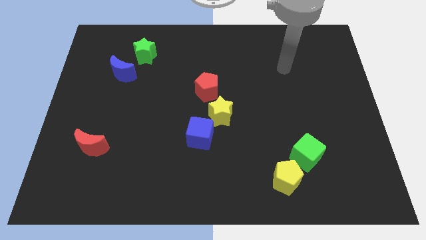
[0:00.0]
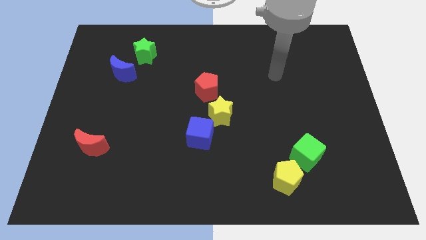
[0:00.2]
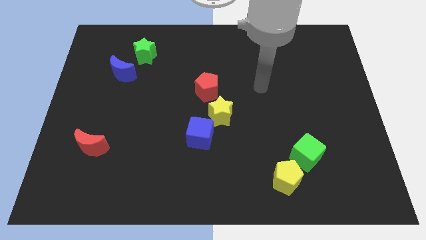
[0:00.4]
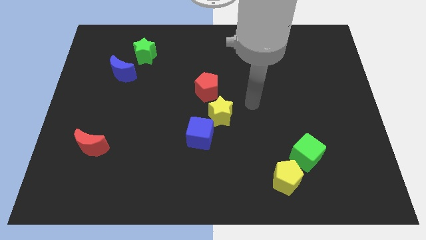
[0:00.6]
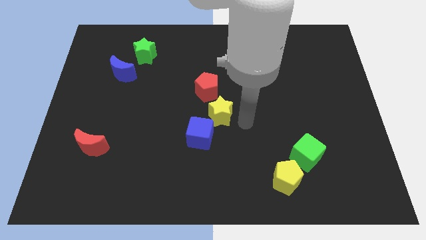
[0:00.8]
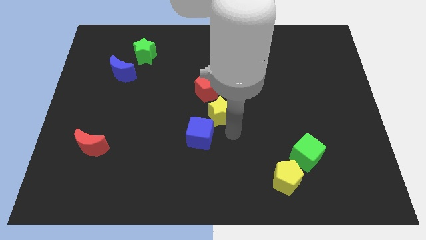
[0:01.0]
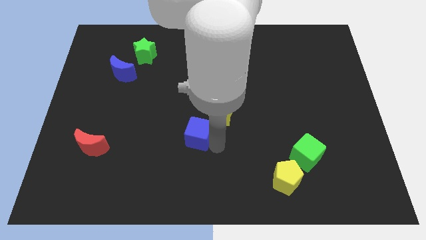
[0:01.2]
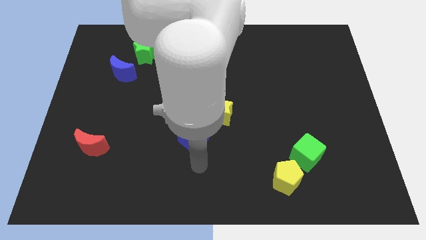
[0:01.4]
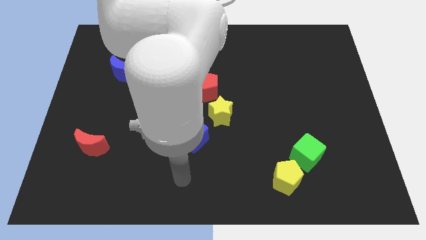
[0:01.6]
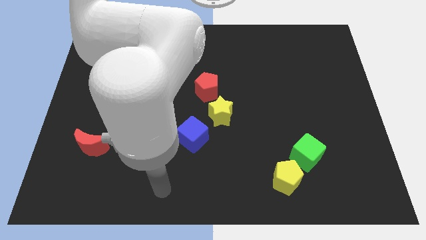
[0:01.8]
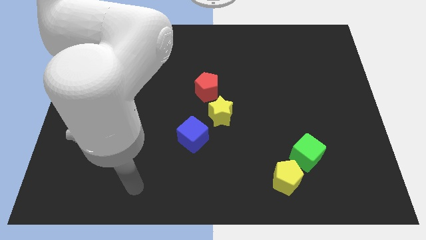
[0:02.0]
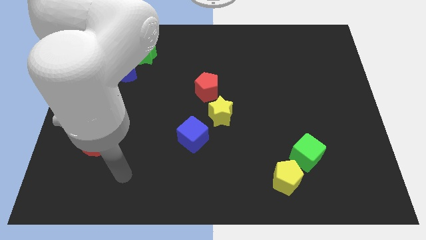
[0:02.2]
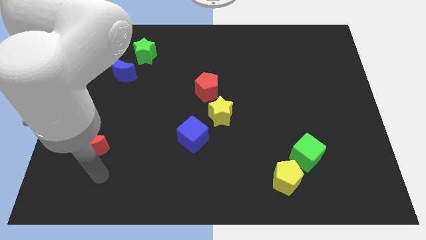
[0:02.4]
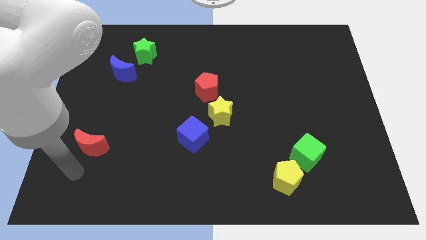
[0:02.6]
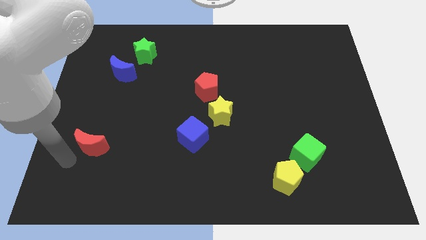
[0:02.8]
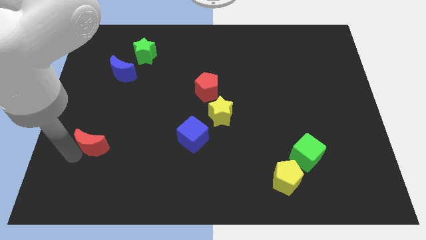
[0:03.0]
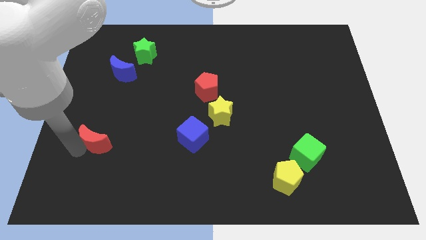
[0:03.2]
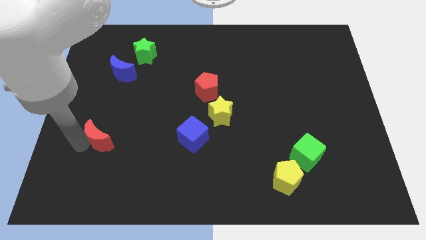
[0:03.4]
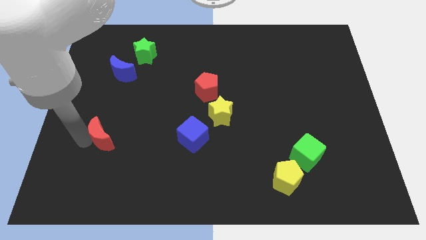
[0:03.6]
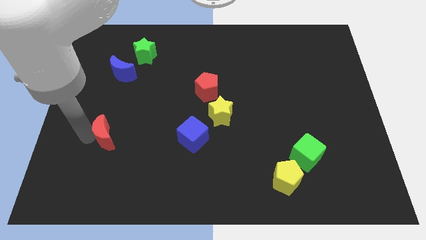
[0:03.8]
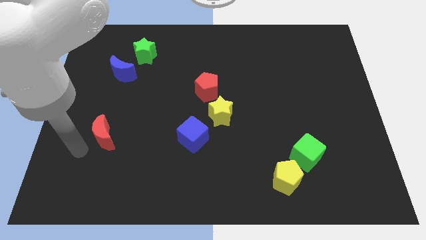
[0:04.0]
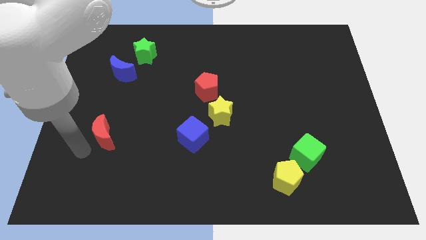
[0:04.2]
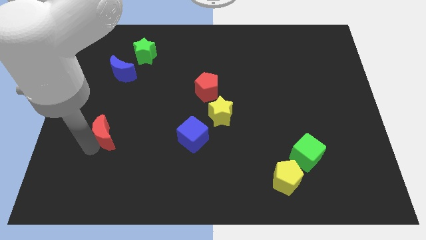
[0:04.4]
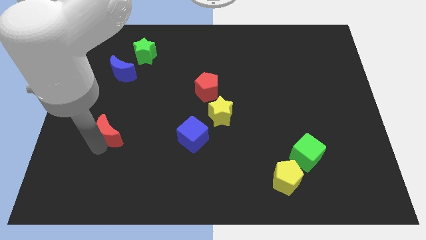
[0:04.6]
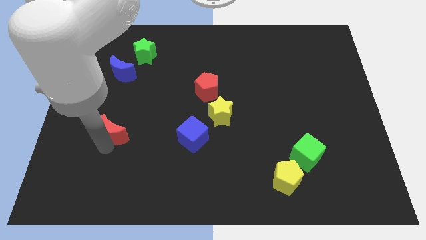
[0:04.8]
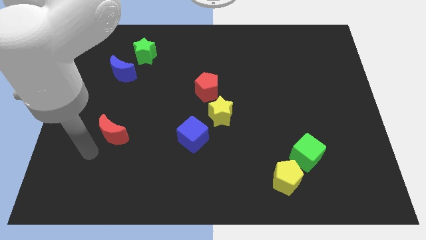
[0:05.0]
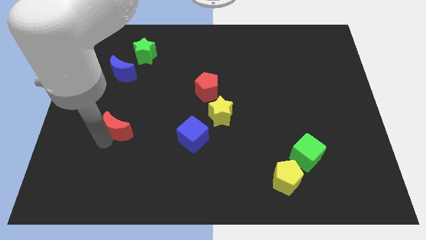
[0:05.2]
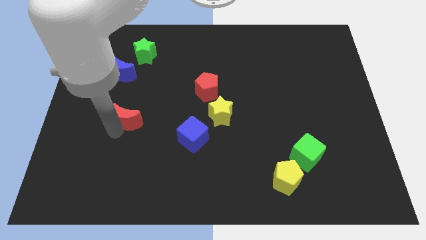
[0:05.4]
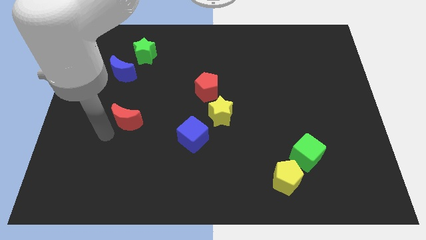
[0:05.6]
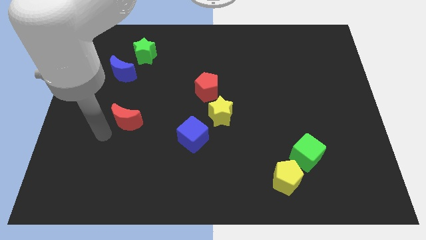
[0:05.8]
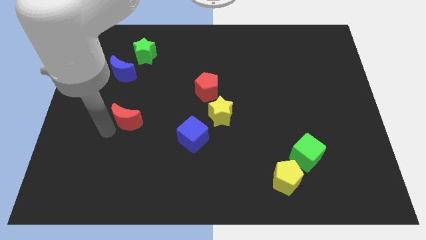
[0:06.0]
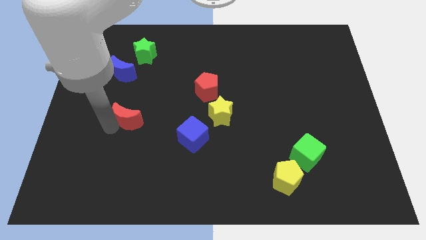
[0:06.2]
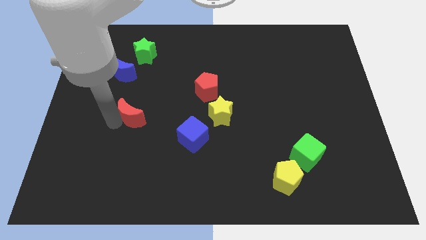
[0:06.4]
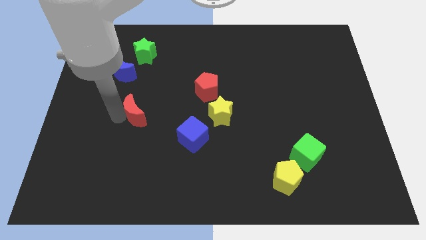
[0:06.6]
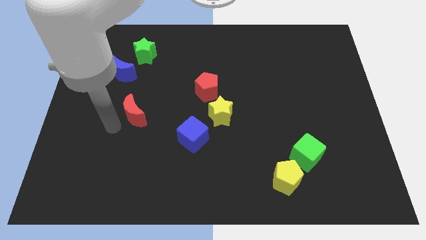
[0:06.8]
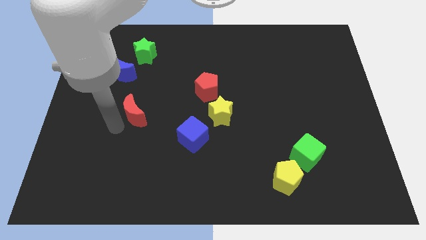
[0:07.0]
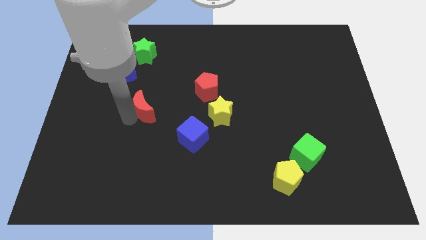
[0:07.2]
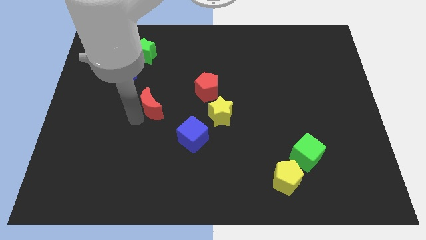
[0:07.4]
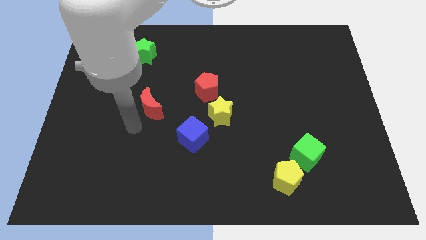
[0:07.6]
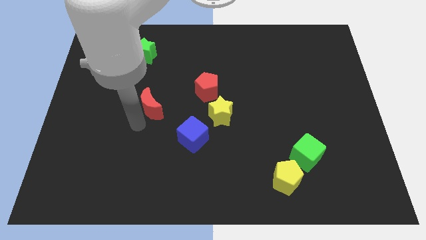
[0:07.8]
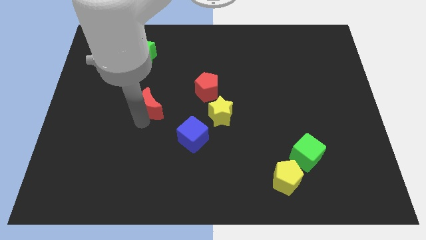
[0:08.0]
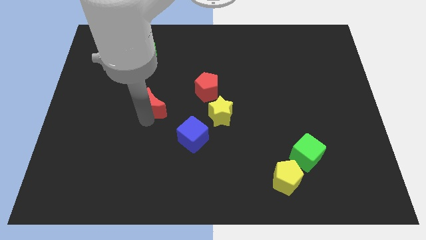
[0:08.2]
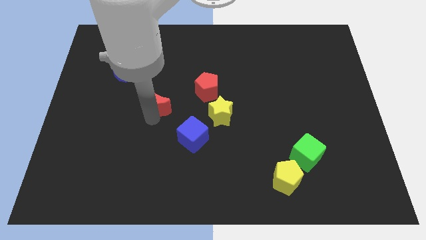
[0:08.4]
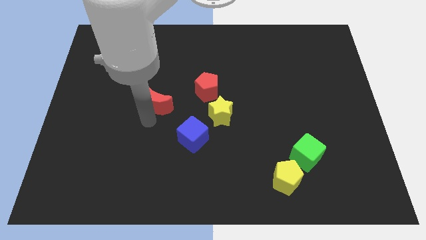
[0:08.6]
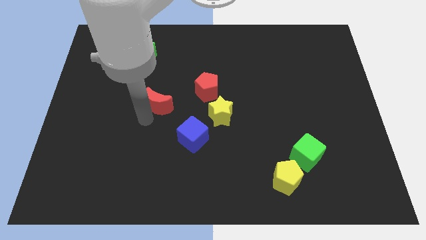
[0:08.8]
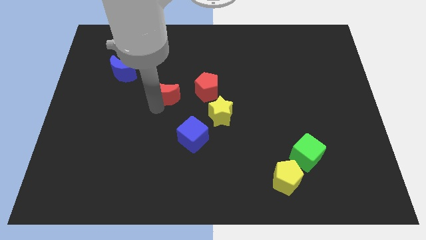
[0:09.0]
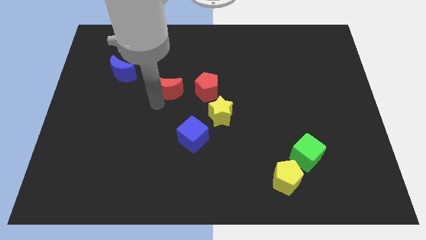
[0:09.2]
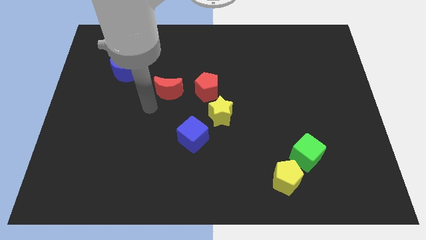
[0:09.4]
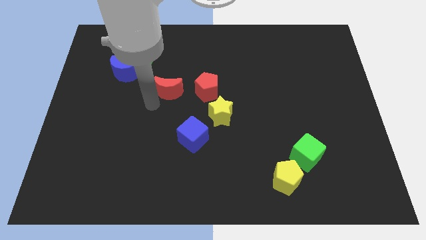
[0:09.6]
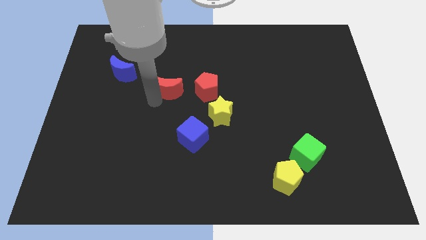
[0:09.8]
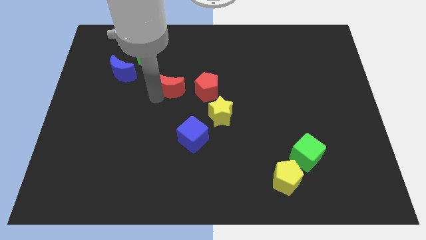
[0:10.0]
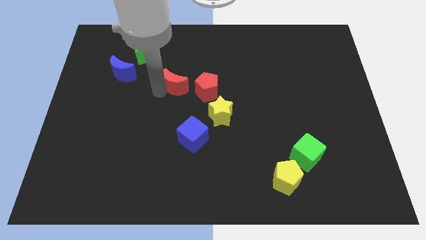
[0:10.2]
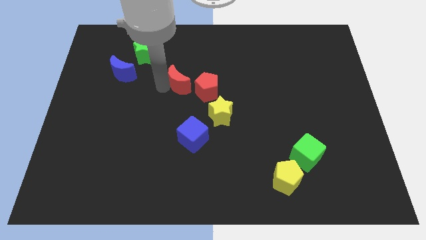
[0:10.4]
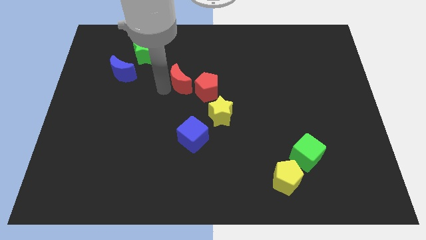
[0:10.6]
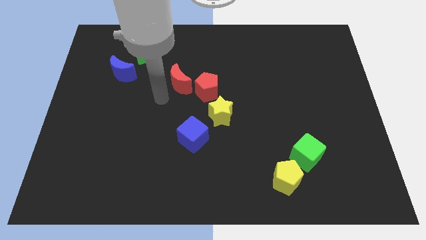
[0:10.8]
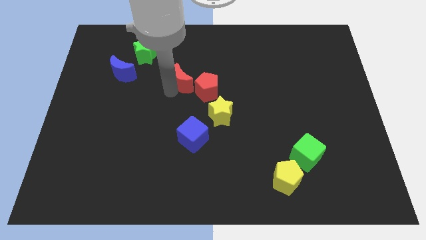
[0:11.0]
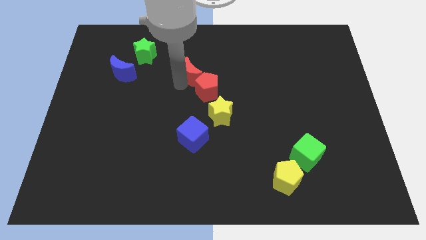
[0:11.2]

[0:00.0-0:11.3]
push the red moon above the red pentagon

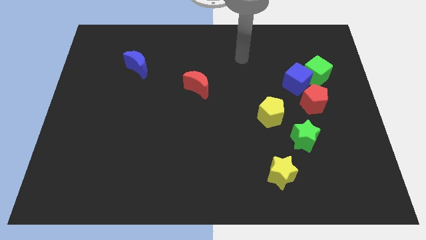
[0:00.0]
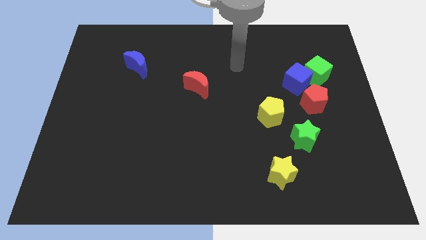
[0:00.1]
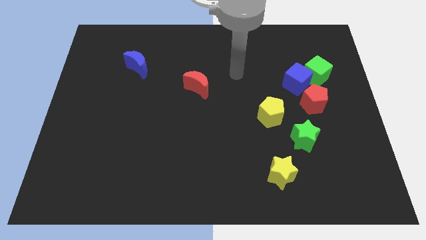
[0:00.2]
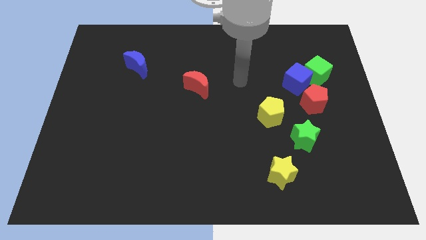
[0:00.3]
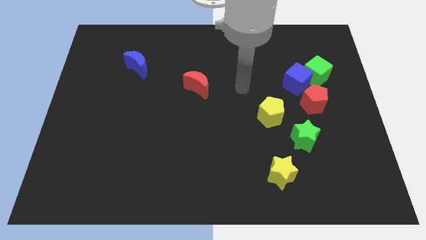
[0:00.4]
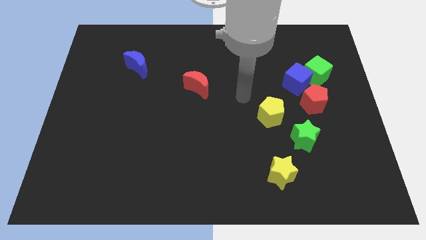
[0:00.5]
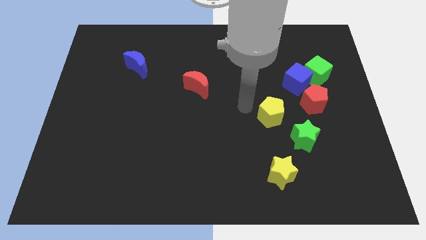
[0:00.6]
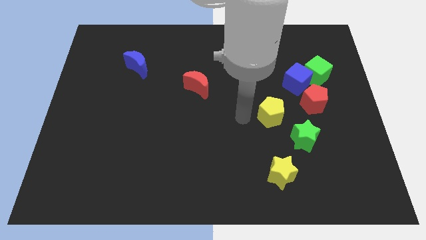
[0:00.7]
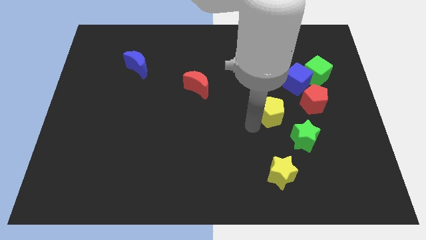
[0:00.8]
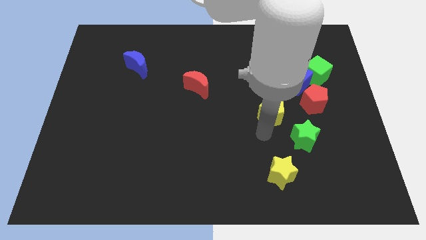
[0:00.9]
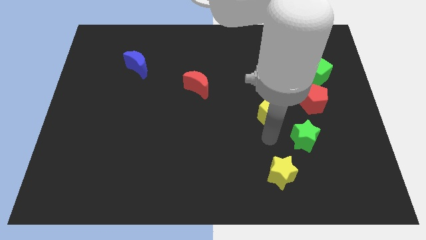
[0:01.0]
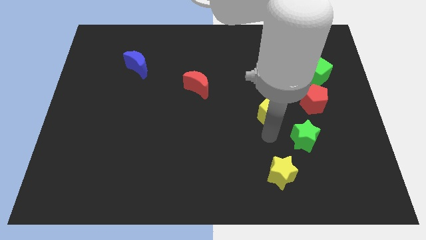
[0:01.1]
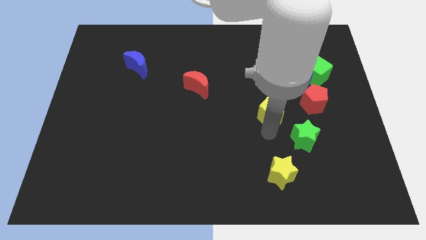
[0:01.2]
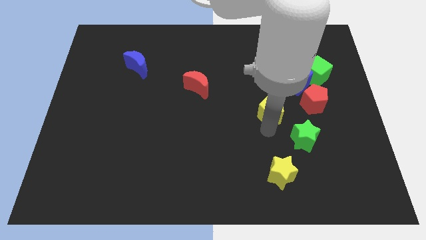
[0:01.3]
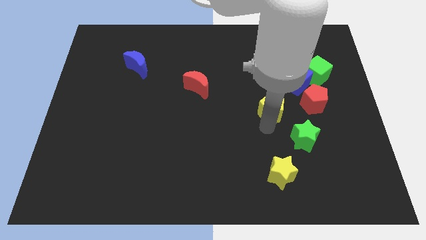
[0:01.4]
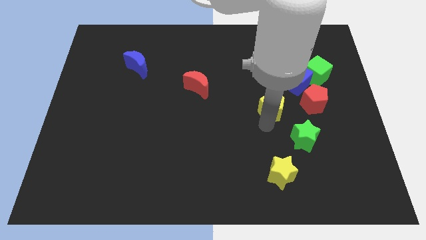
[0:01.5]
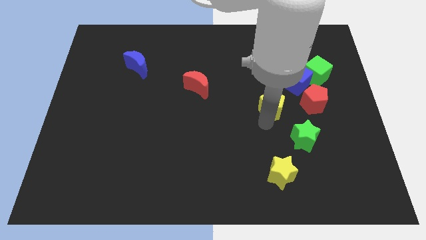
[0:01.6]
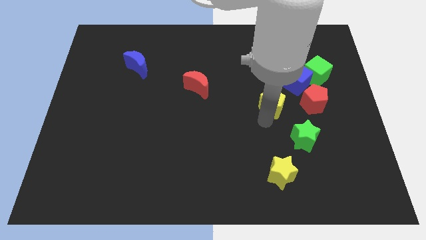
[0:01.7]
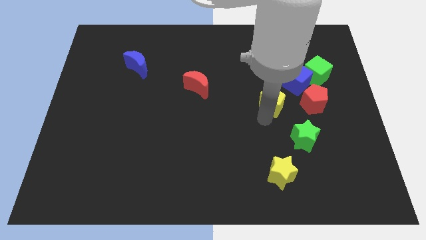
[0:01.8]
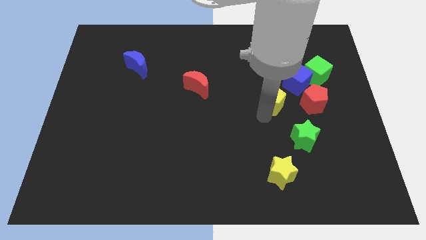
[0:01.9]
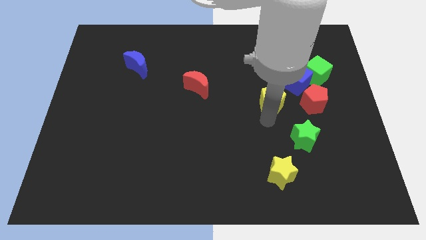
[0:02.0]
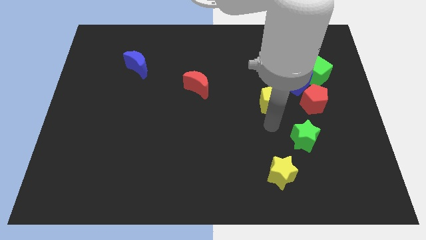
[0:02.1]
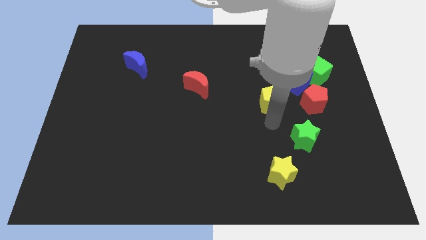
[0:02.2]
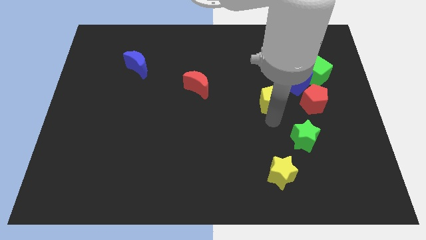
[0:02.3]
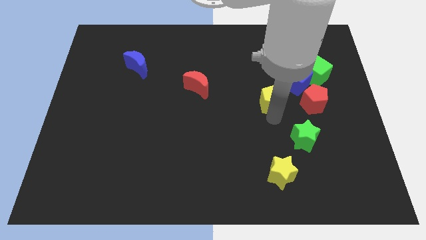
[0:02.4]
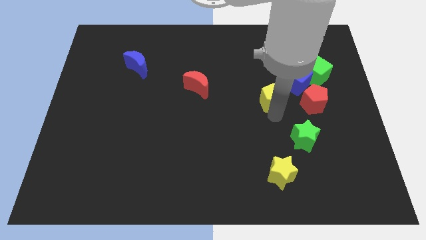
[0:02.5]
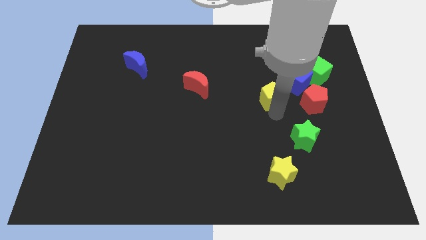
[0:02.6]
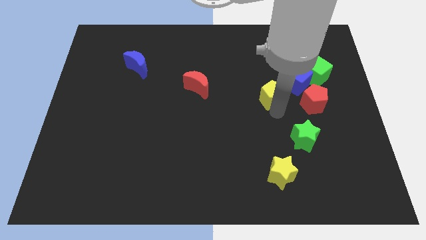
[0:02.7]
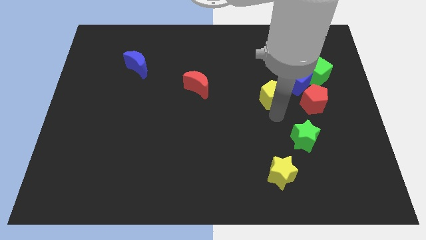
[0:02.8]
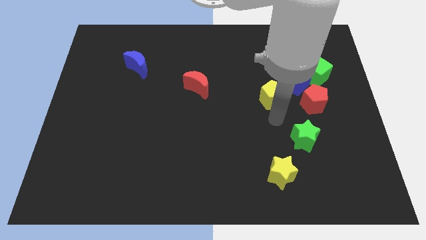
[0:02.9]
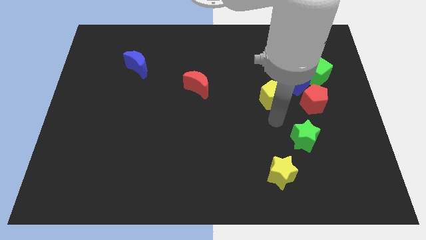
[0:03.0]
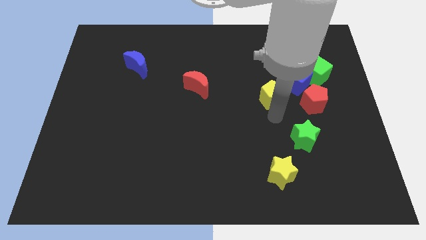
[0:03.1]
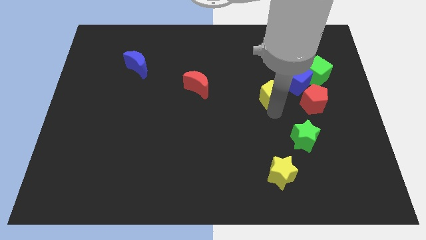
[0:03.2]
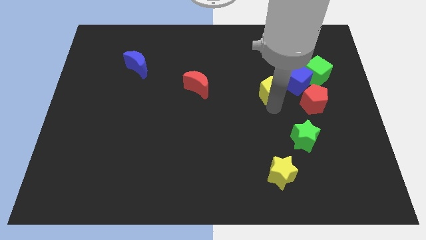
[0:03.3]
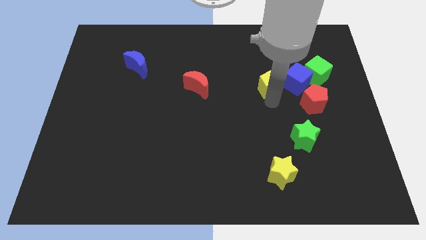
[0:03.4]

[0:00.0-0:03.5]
put the yellow pentagon just left of the green cube
